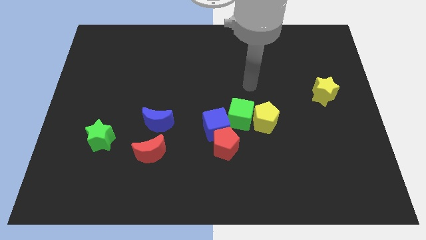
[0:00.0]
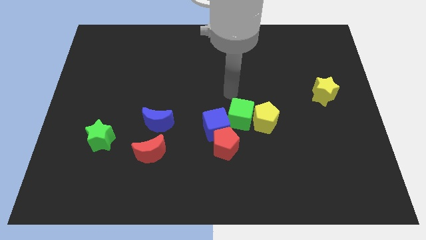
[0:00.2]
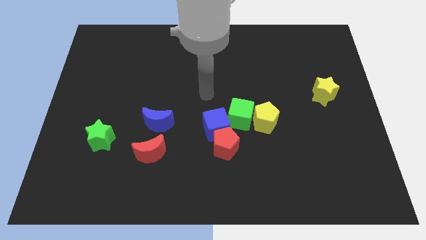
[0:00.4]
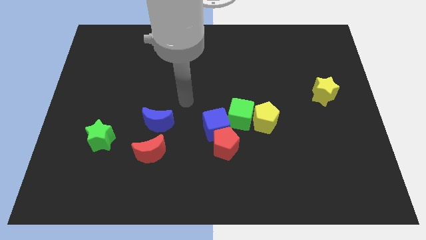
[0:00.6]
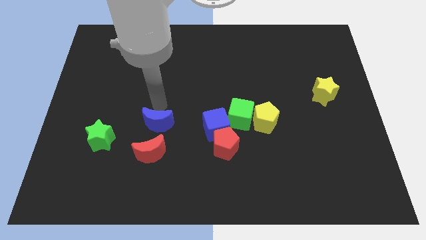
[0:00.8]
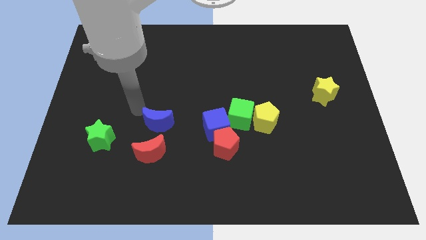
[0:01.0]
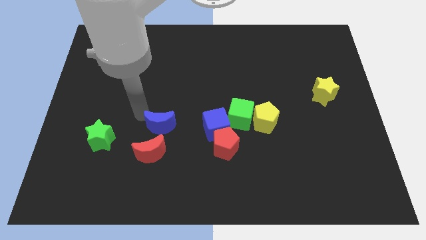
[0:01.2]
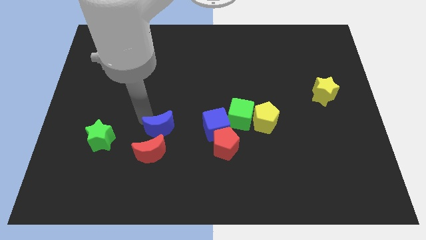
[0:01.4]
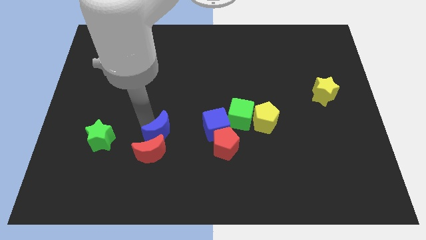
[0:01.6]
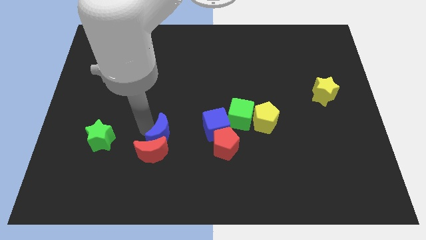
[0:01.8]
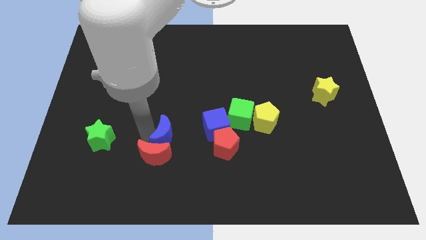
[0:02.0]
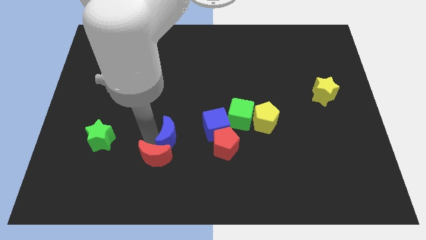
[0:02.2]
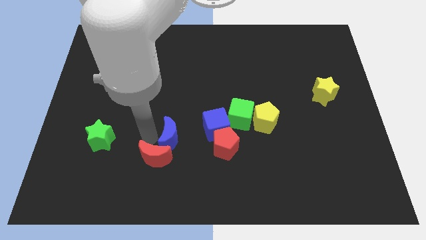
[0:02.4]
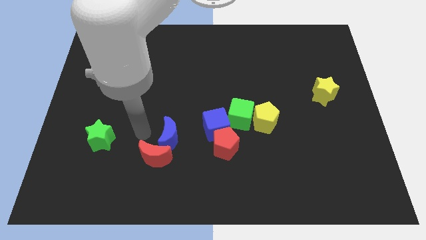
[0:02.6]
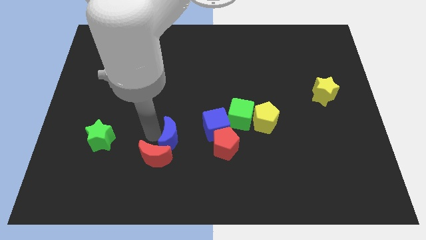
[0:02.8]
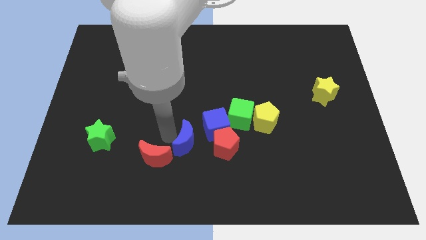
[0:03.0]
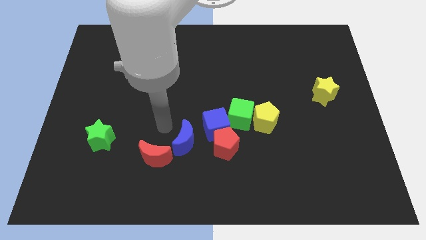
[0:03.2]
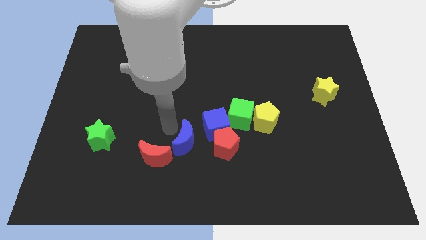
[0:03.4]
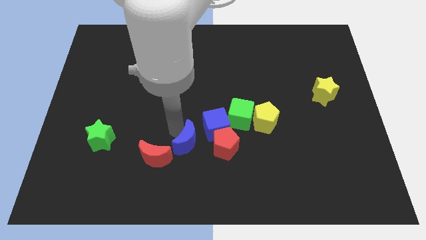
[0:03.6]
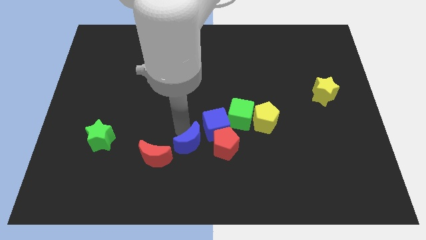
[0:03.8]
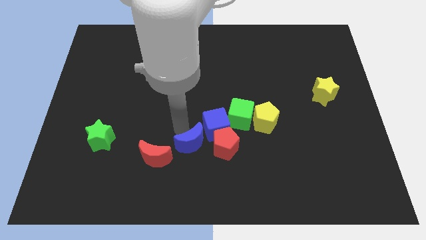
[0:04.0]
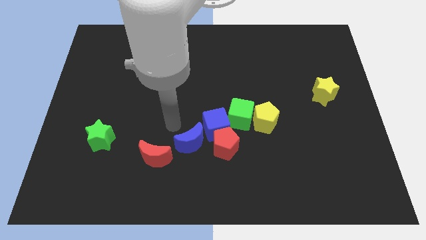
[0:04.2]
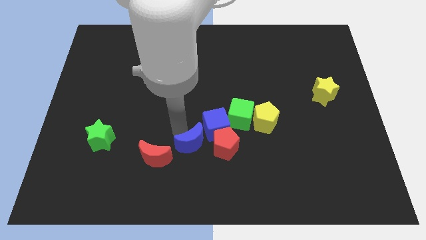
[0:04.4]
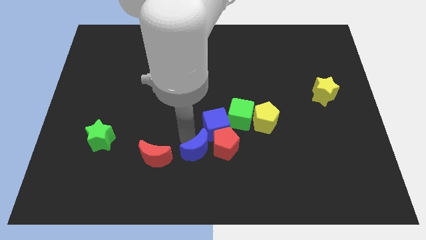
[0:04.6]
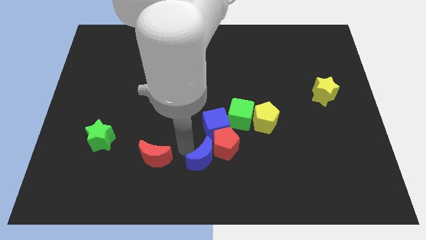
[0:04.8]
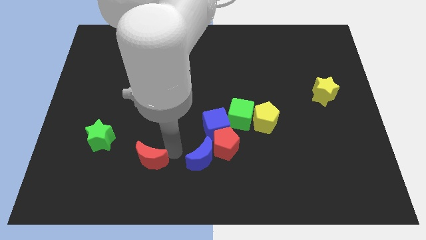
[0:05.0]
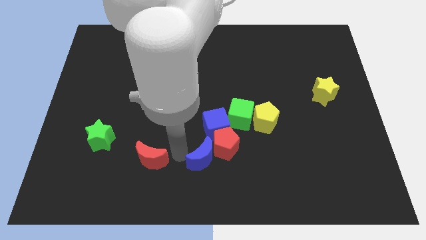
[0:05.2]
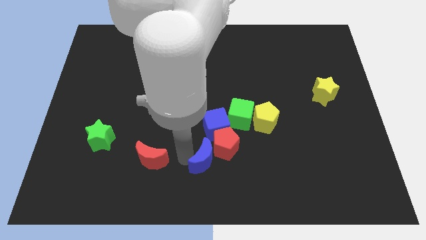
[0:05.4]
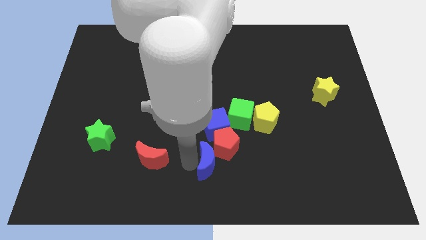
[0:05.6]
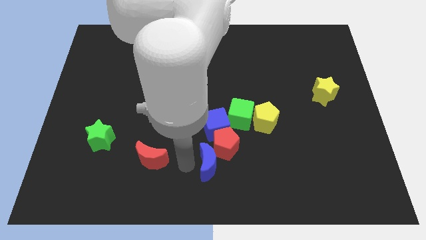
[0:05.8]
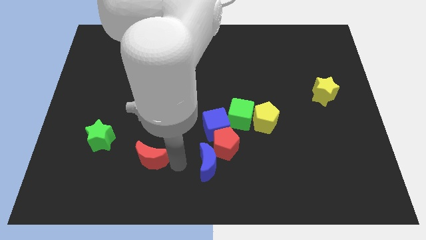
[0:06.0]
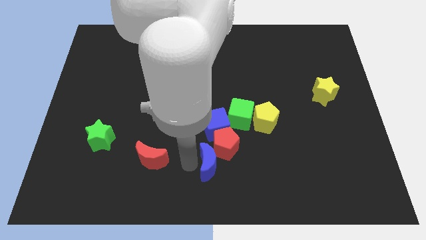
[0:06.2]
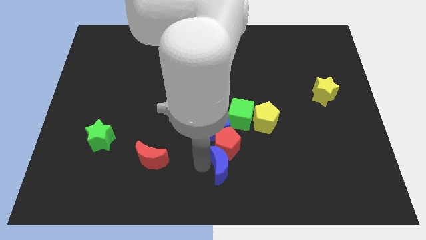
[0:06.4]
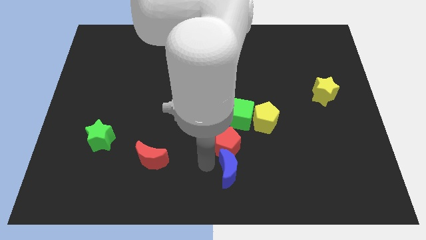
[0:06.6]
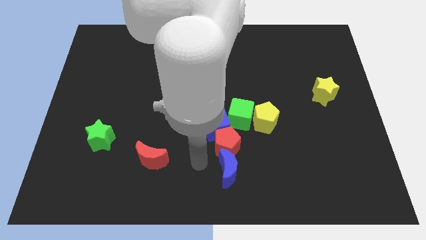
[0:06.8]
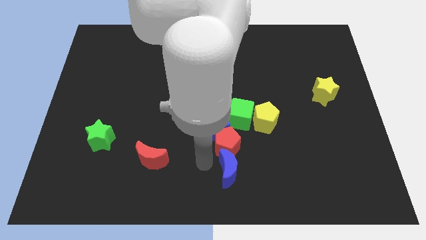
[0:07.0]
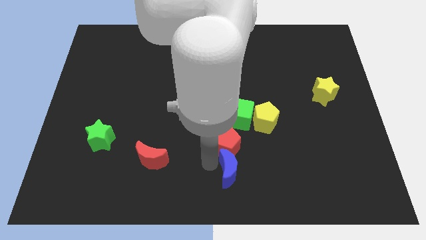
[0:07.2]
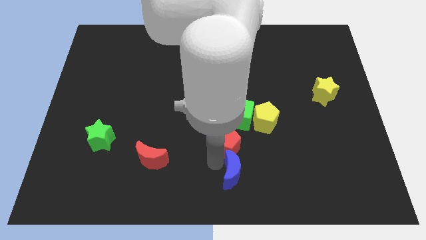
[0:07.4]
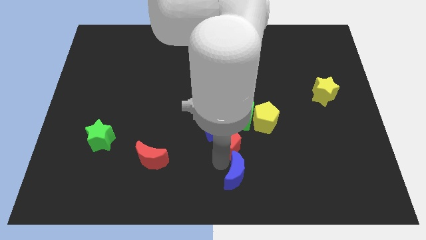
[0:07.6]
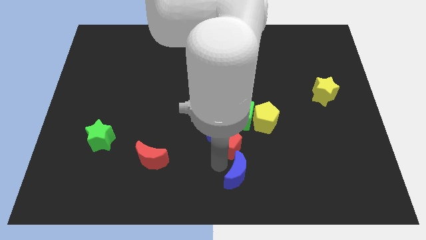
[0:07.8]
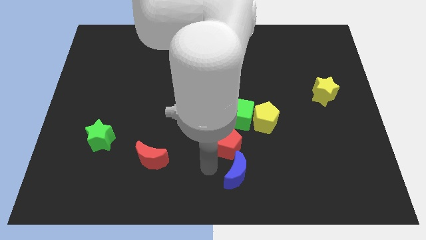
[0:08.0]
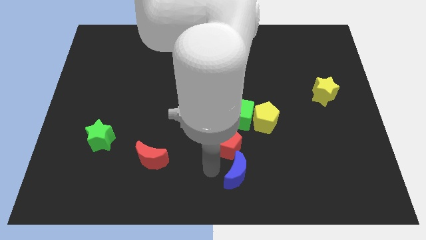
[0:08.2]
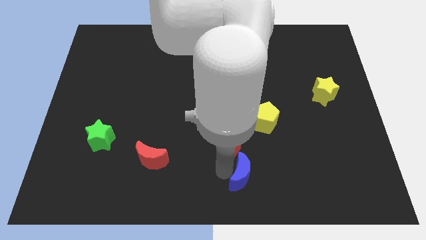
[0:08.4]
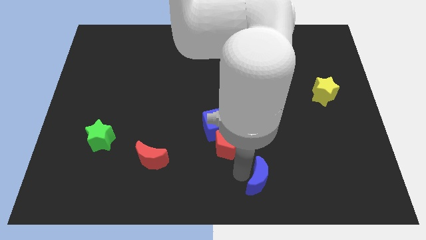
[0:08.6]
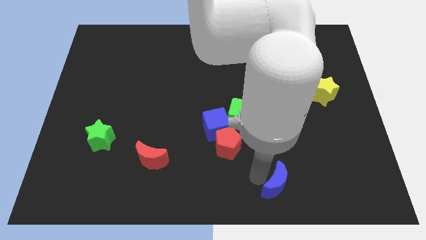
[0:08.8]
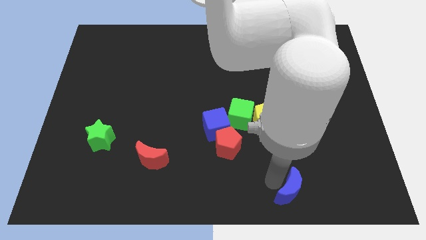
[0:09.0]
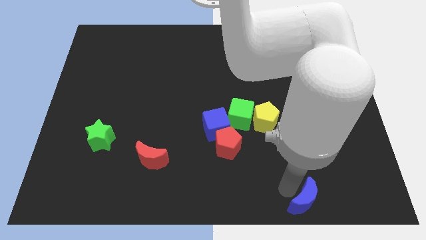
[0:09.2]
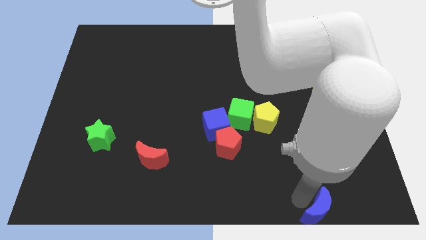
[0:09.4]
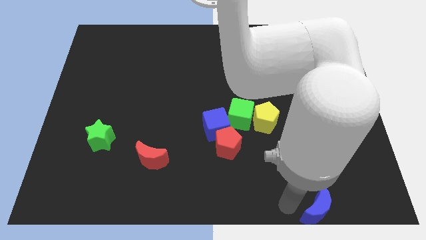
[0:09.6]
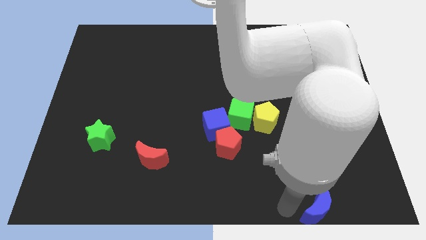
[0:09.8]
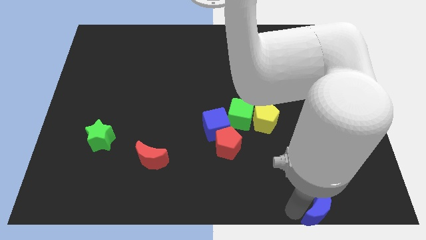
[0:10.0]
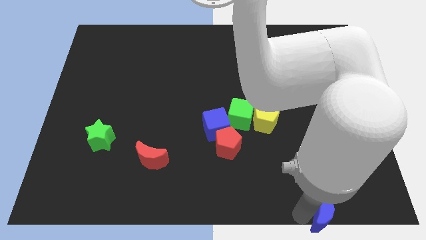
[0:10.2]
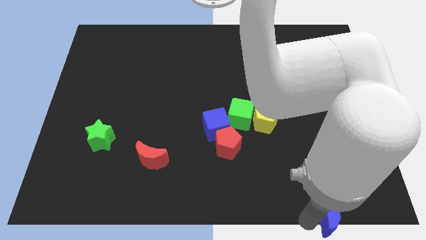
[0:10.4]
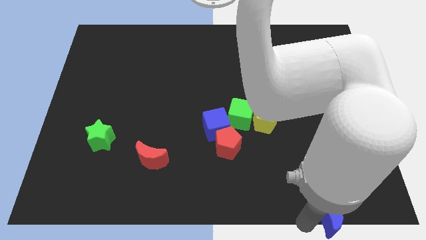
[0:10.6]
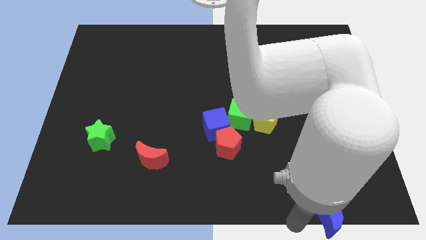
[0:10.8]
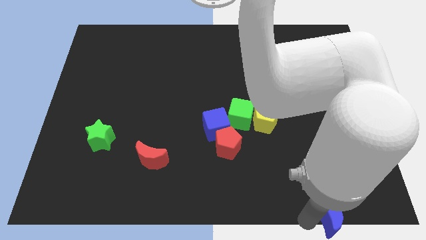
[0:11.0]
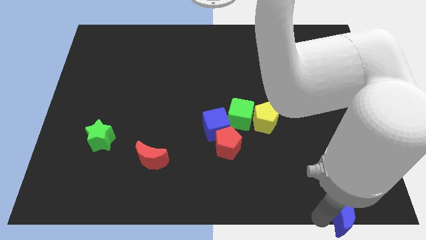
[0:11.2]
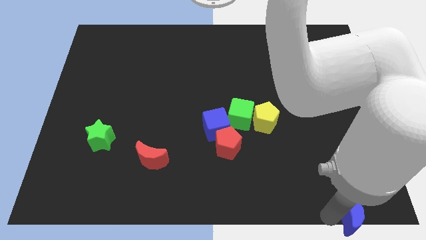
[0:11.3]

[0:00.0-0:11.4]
move the blue moon to the bottom right of the board
